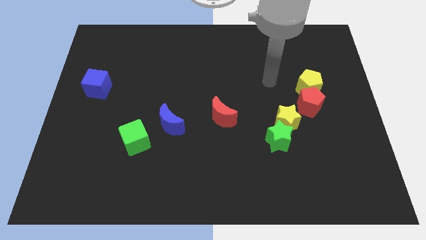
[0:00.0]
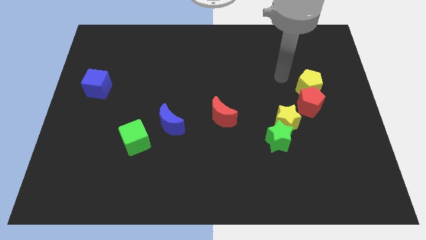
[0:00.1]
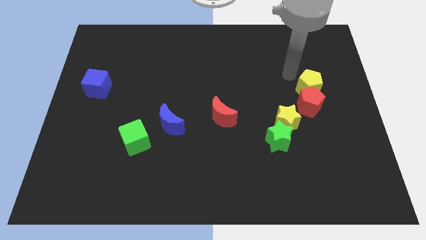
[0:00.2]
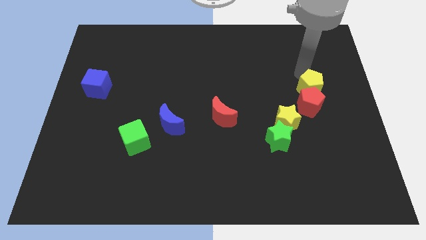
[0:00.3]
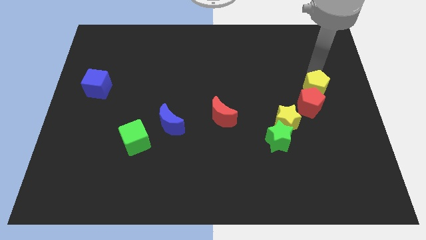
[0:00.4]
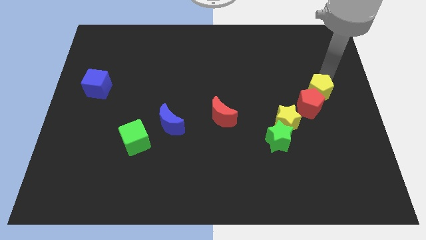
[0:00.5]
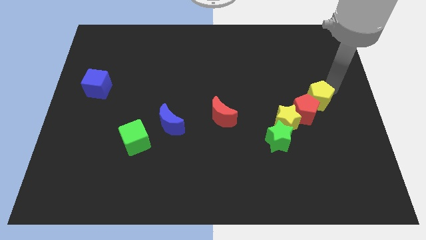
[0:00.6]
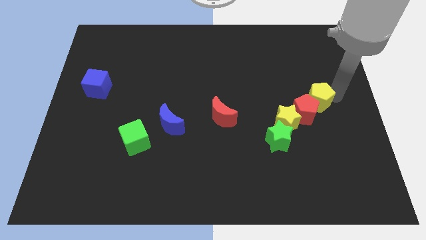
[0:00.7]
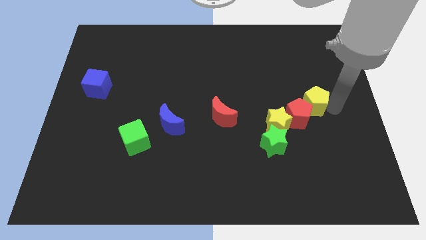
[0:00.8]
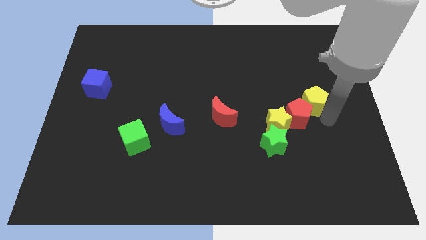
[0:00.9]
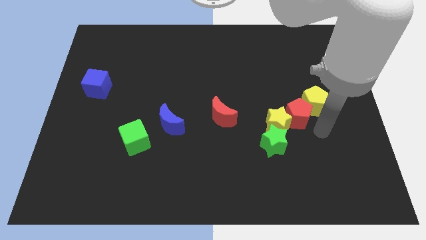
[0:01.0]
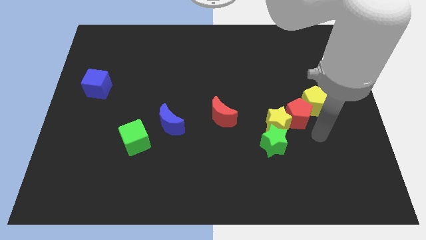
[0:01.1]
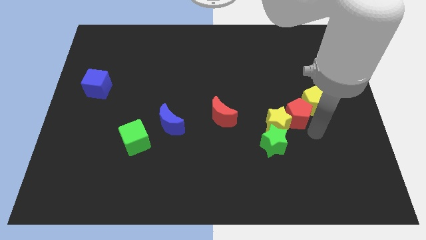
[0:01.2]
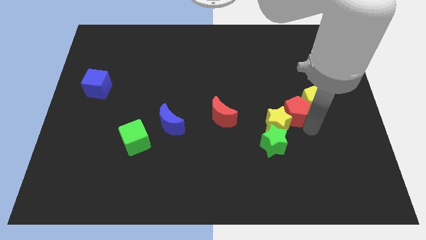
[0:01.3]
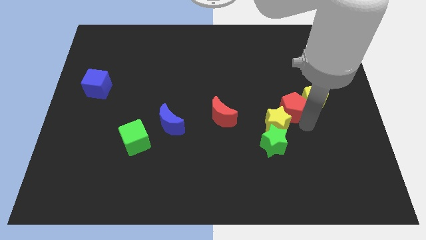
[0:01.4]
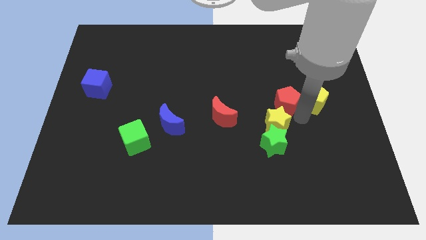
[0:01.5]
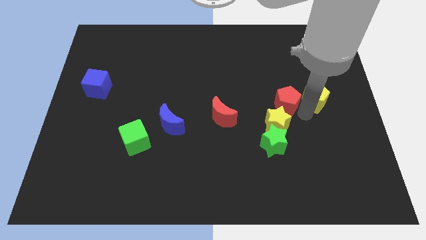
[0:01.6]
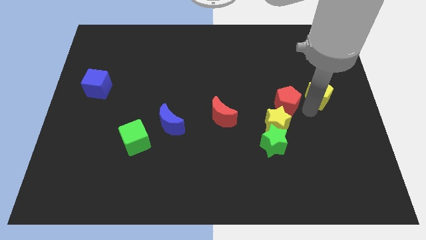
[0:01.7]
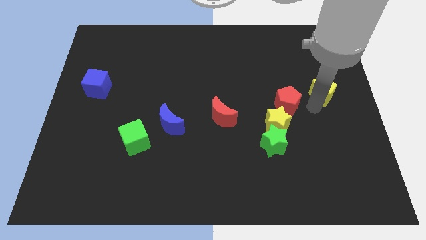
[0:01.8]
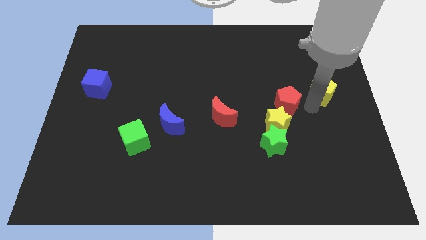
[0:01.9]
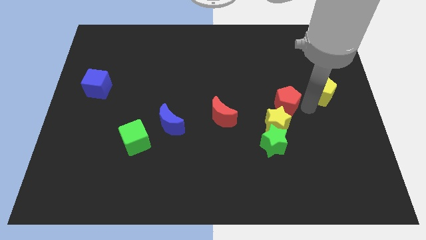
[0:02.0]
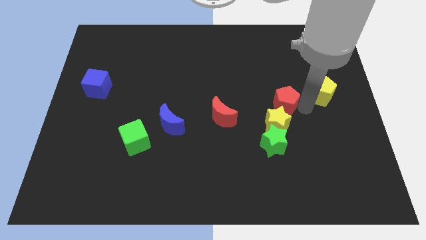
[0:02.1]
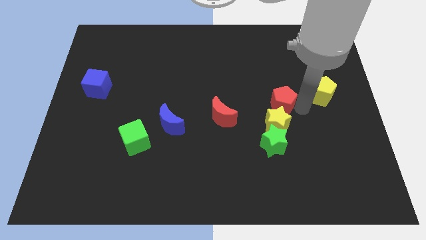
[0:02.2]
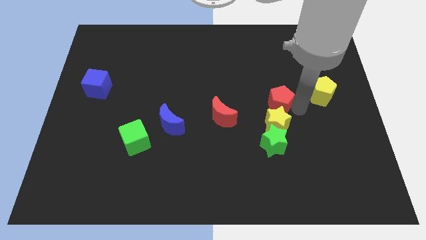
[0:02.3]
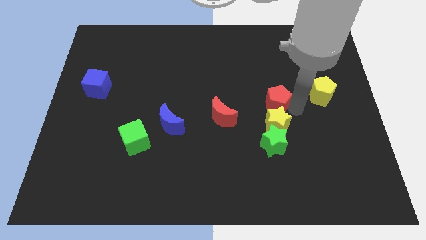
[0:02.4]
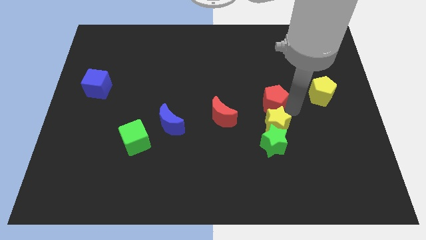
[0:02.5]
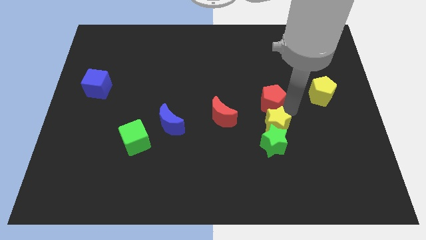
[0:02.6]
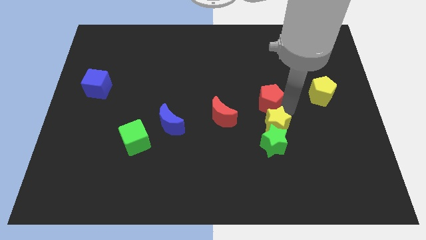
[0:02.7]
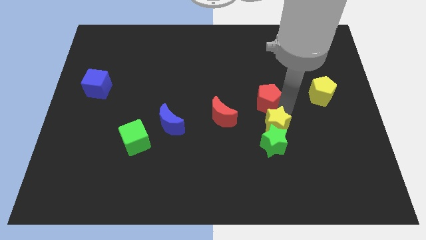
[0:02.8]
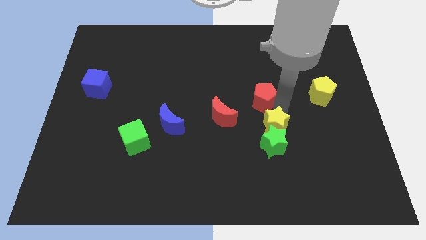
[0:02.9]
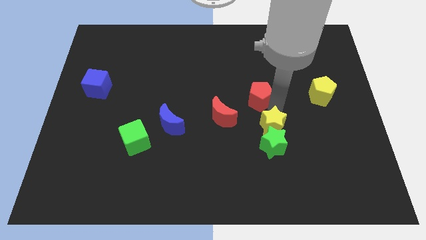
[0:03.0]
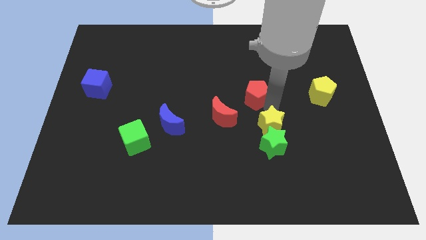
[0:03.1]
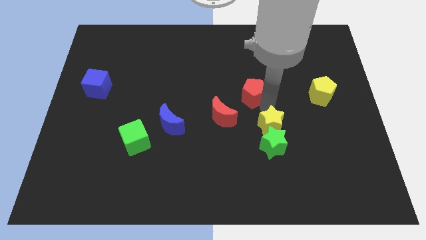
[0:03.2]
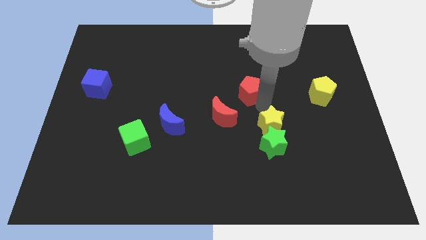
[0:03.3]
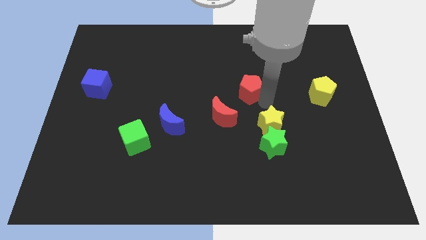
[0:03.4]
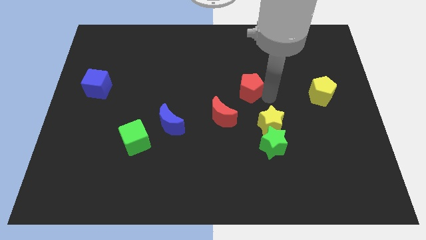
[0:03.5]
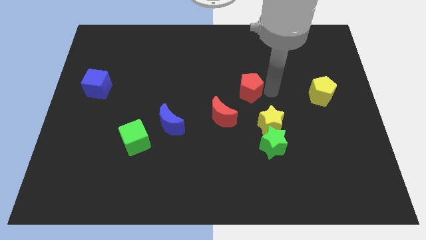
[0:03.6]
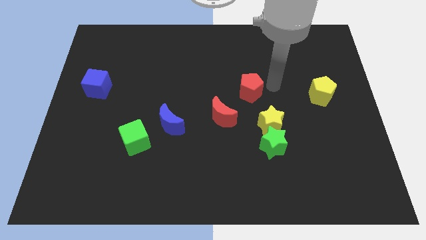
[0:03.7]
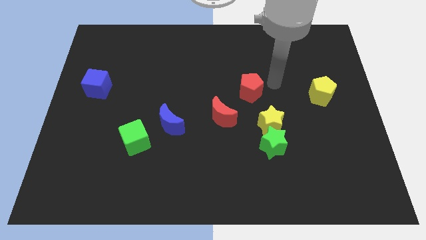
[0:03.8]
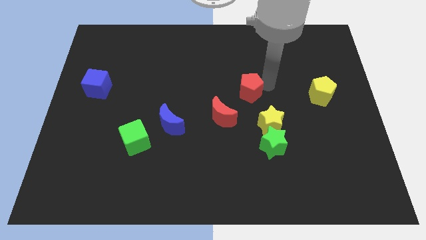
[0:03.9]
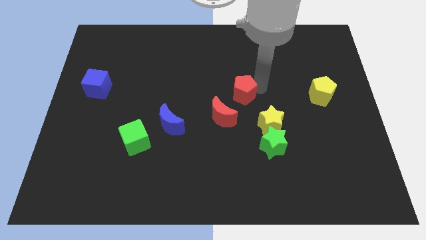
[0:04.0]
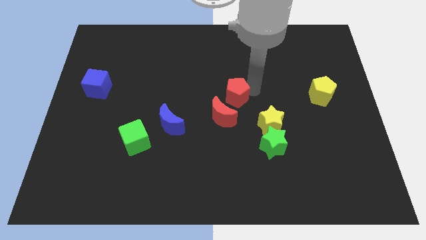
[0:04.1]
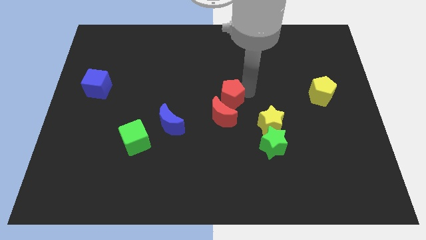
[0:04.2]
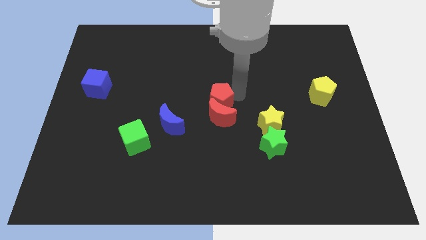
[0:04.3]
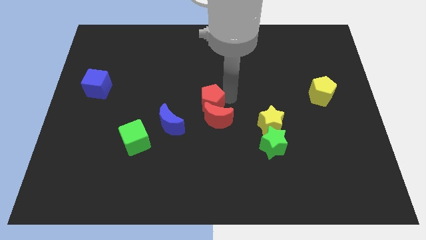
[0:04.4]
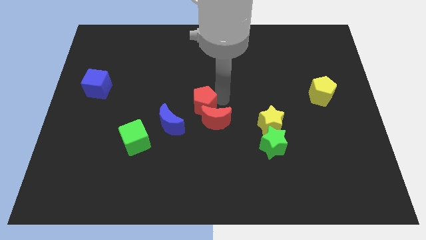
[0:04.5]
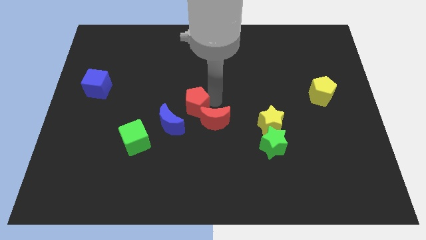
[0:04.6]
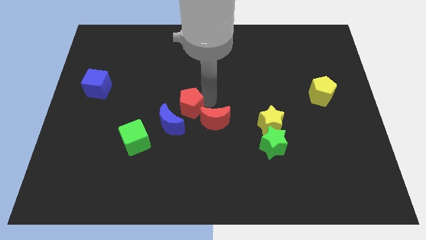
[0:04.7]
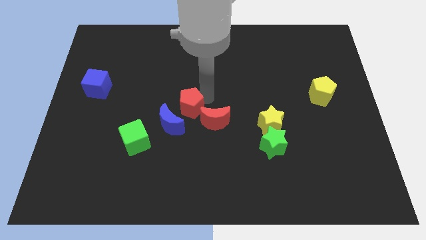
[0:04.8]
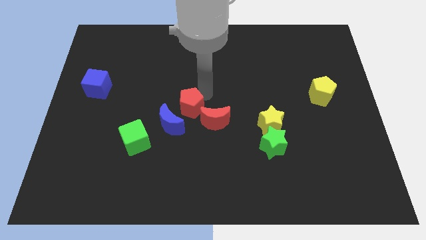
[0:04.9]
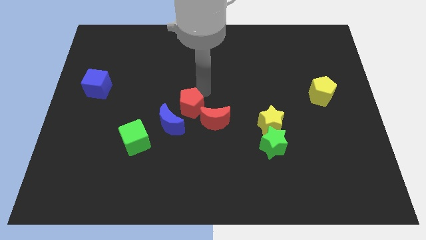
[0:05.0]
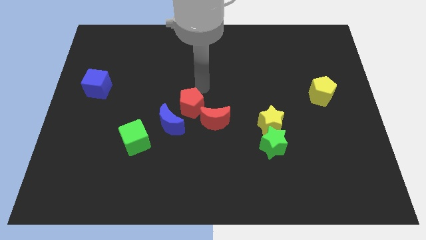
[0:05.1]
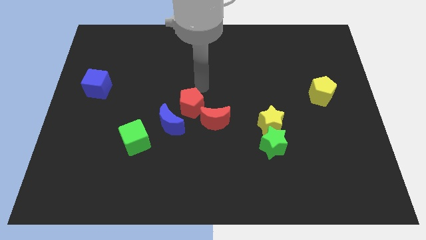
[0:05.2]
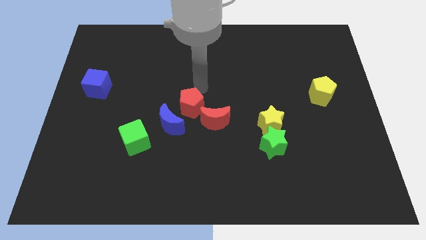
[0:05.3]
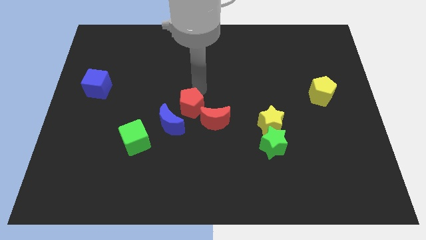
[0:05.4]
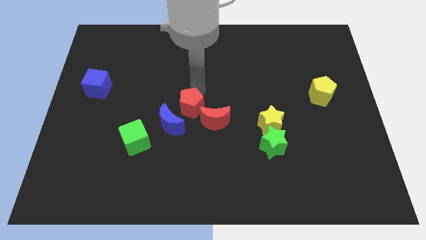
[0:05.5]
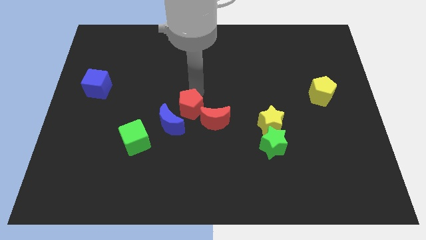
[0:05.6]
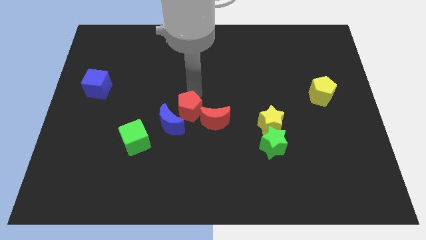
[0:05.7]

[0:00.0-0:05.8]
slide the red pentagon close to the blue moon

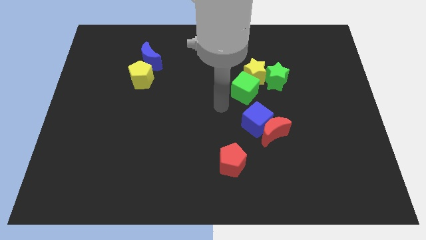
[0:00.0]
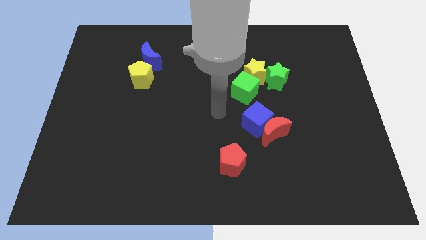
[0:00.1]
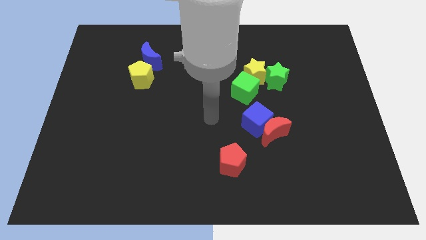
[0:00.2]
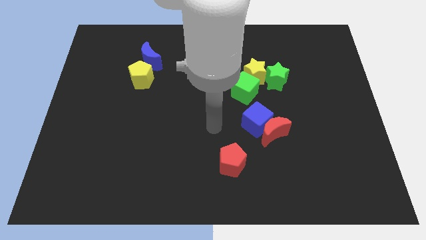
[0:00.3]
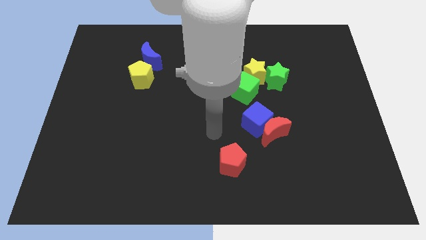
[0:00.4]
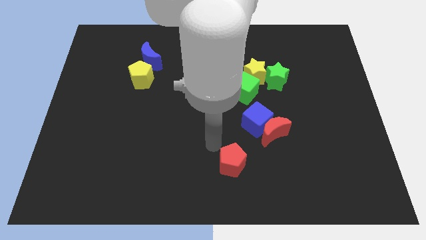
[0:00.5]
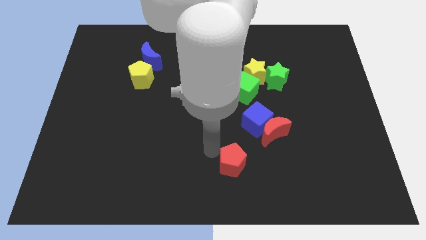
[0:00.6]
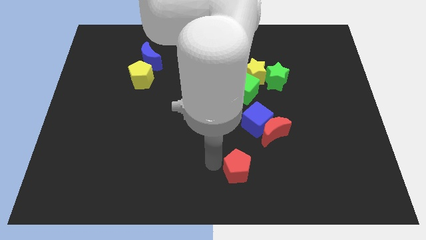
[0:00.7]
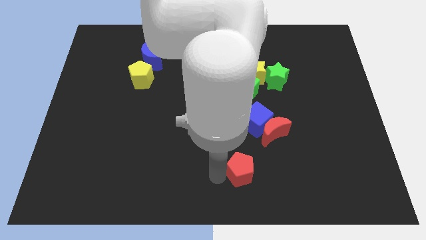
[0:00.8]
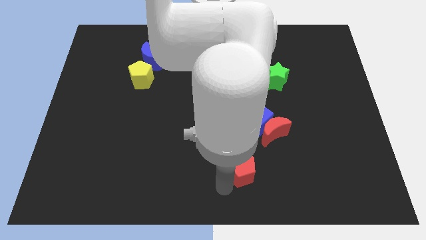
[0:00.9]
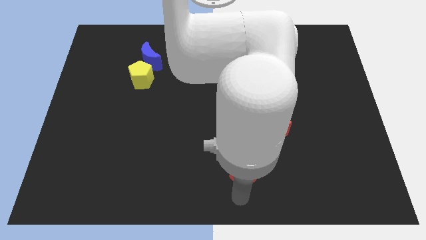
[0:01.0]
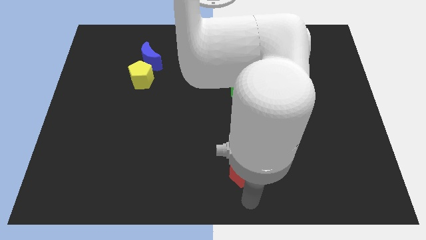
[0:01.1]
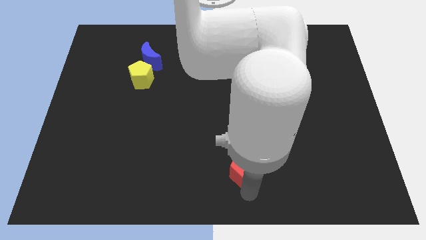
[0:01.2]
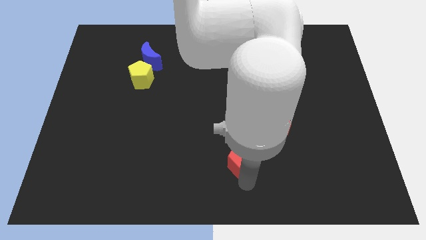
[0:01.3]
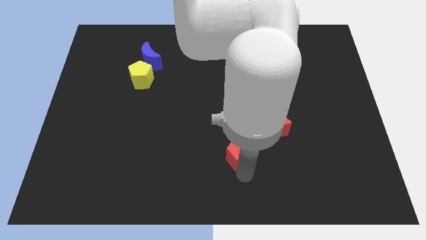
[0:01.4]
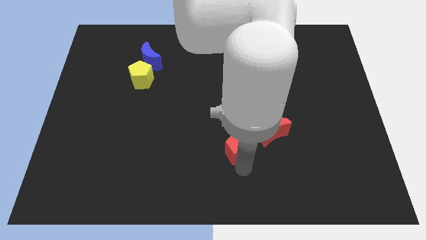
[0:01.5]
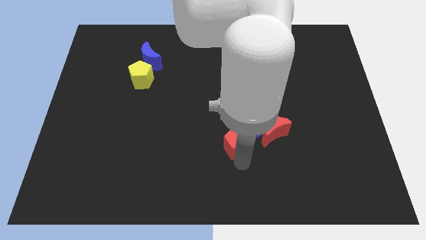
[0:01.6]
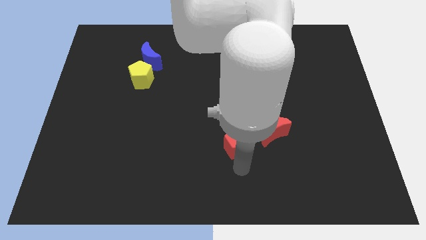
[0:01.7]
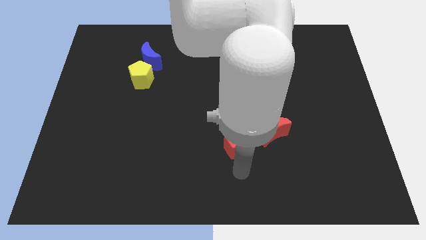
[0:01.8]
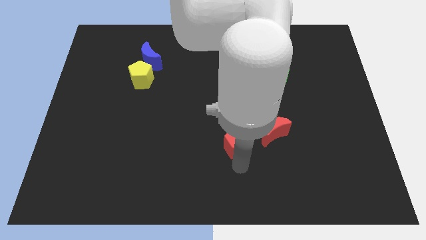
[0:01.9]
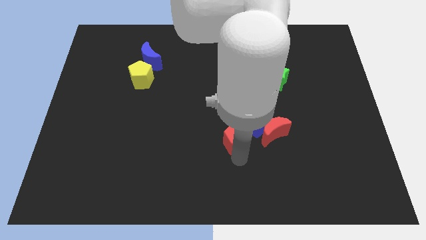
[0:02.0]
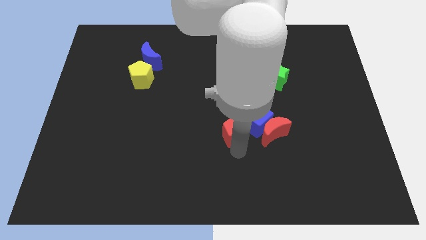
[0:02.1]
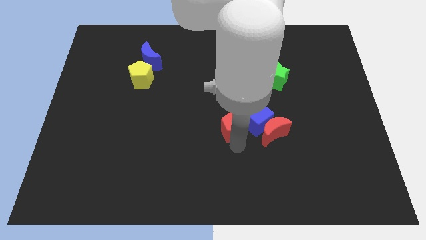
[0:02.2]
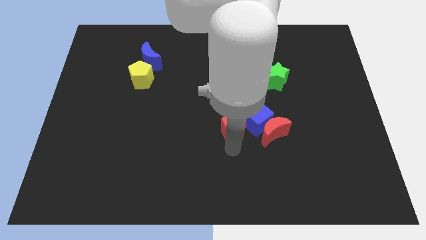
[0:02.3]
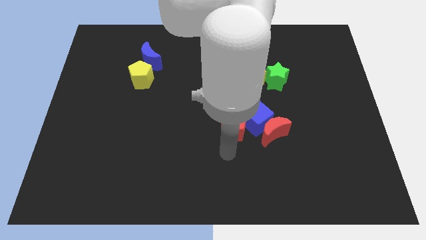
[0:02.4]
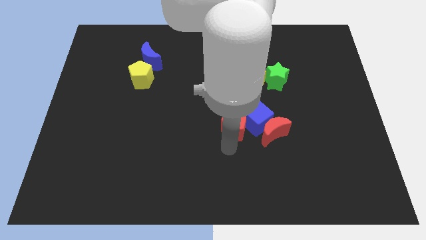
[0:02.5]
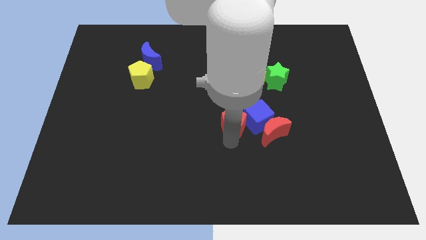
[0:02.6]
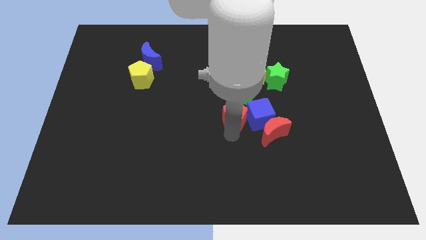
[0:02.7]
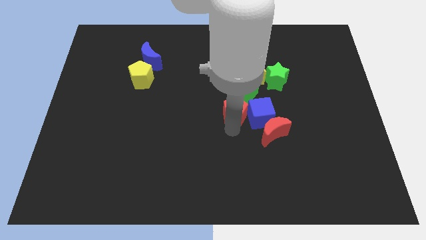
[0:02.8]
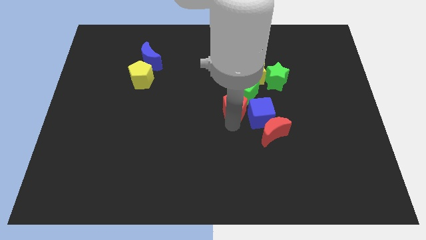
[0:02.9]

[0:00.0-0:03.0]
put the red pentagon close to the green cube
